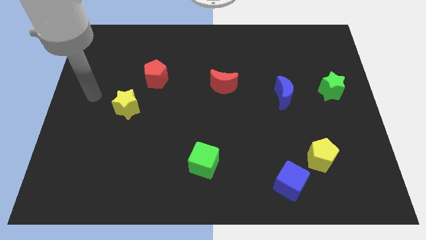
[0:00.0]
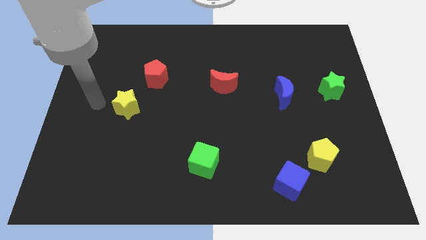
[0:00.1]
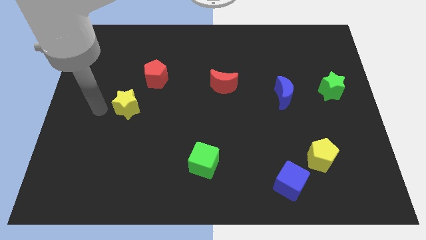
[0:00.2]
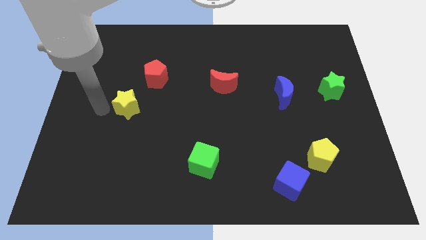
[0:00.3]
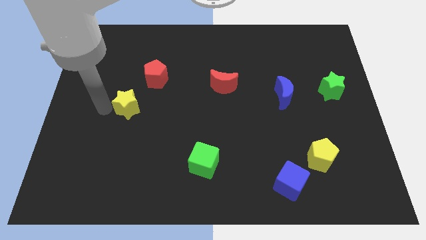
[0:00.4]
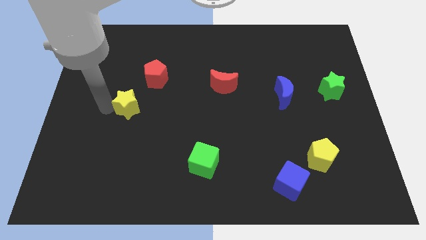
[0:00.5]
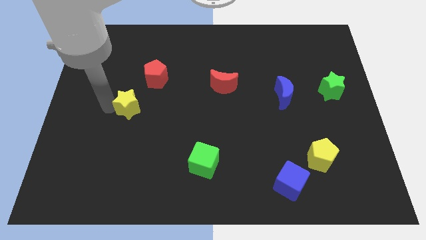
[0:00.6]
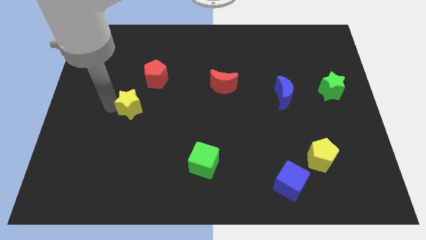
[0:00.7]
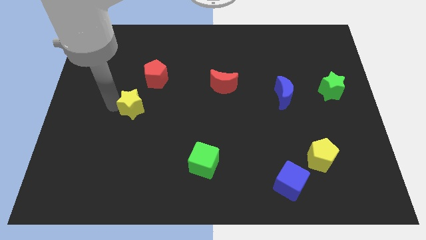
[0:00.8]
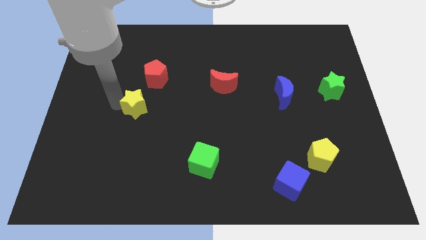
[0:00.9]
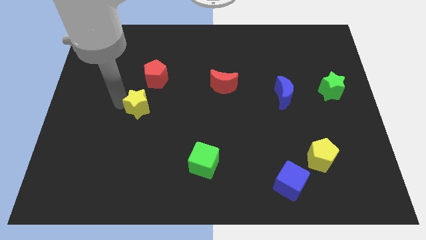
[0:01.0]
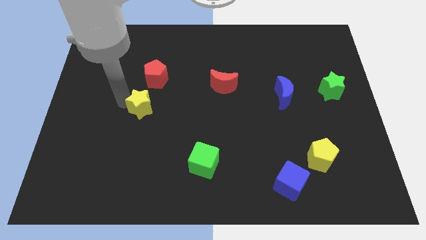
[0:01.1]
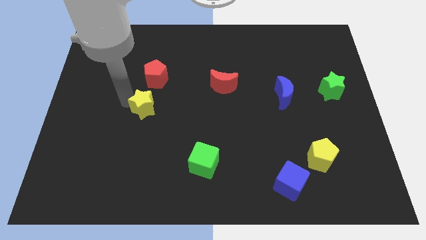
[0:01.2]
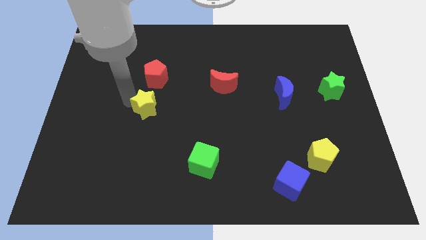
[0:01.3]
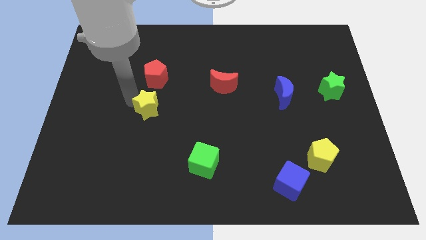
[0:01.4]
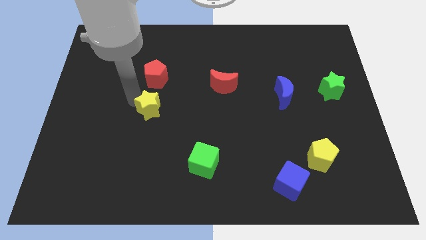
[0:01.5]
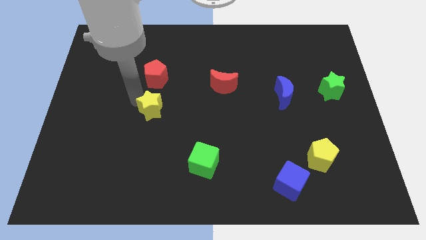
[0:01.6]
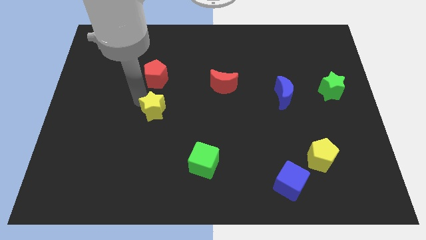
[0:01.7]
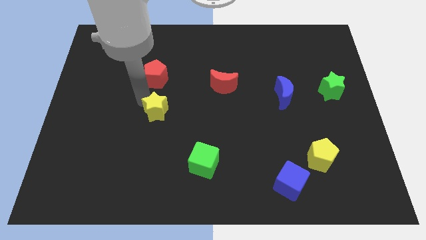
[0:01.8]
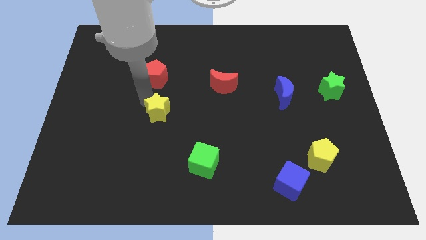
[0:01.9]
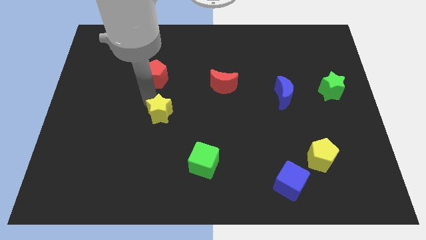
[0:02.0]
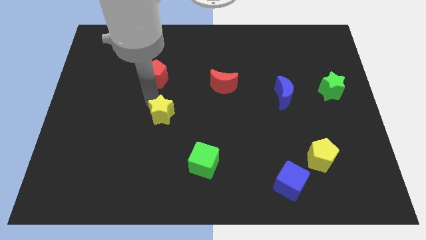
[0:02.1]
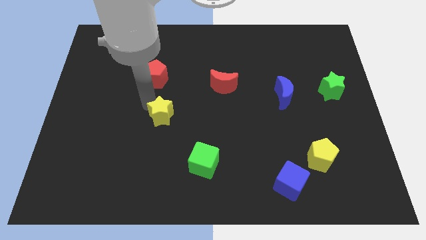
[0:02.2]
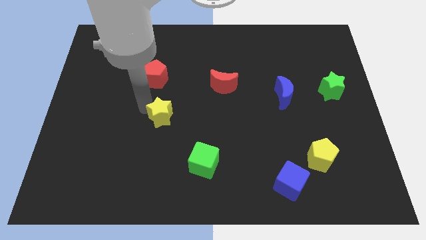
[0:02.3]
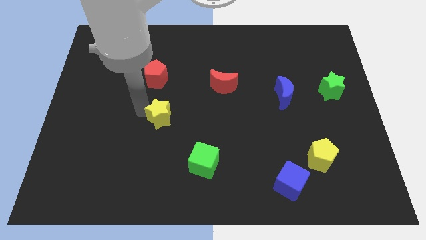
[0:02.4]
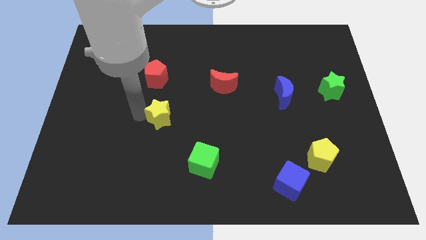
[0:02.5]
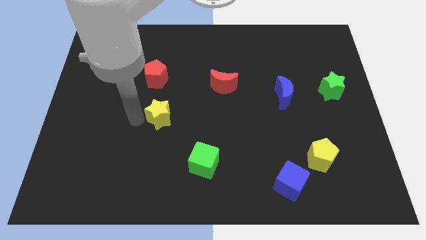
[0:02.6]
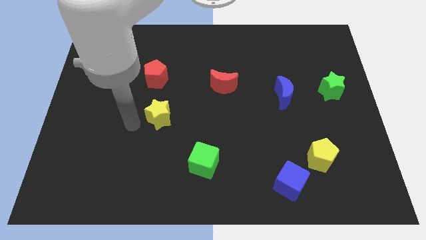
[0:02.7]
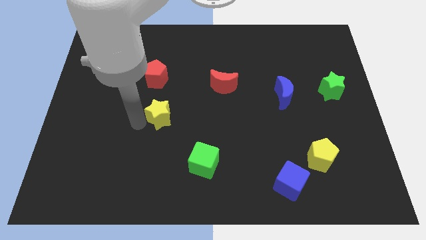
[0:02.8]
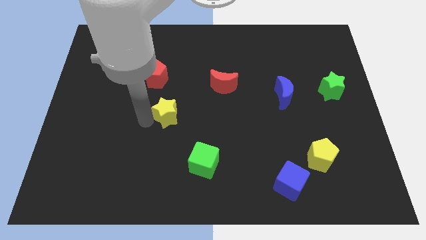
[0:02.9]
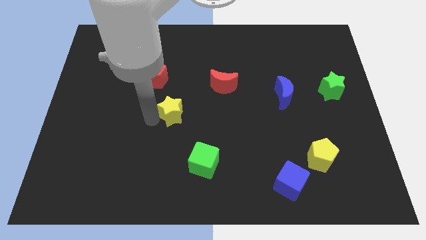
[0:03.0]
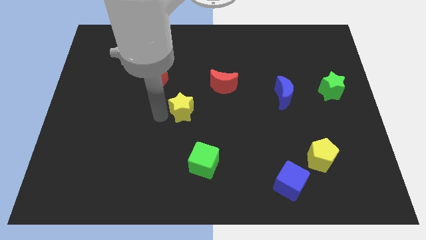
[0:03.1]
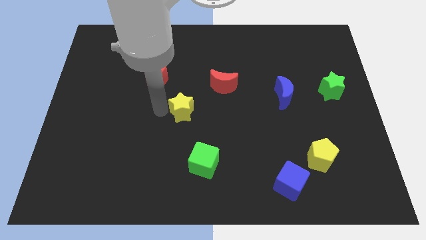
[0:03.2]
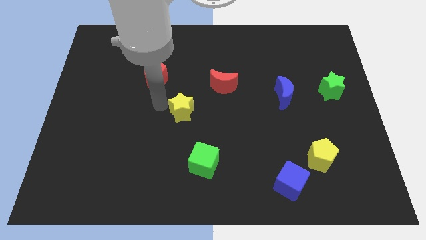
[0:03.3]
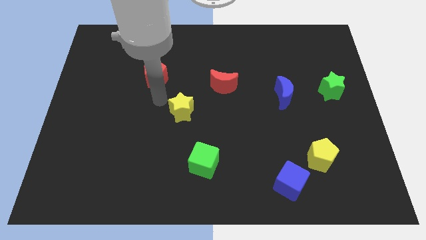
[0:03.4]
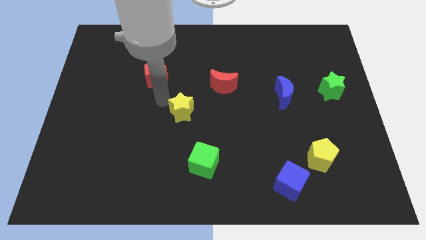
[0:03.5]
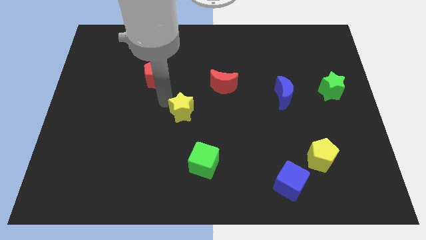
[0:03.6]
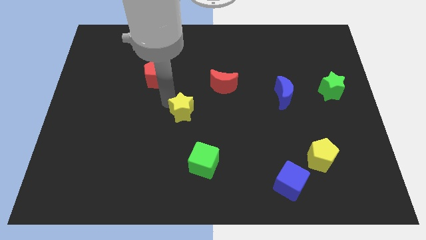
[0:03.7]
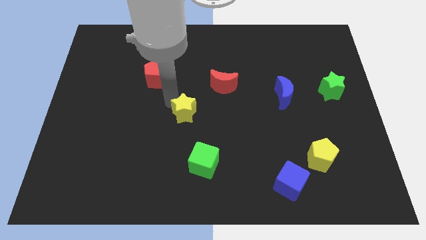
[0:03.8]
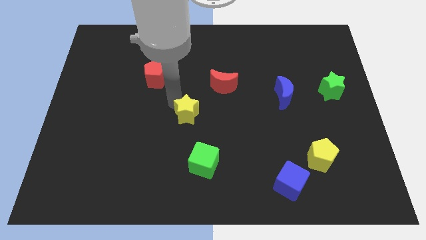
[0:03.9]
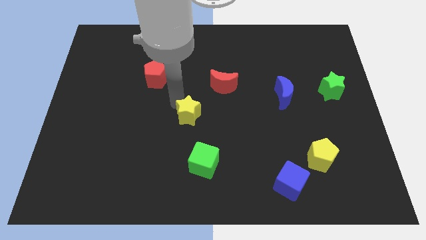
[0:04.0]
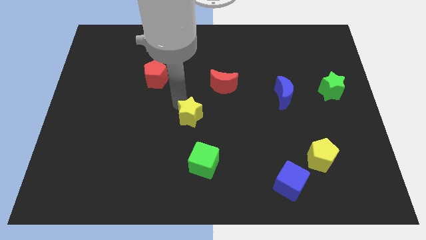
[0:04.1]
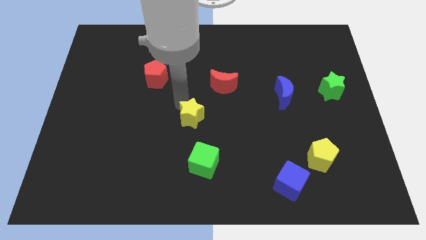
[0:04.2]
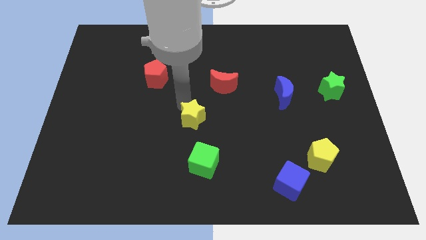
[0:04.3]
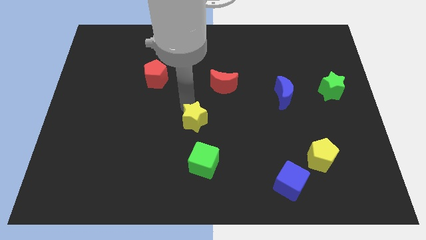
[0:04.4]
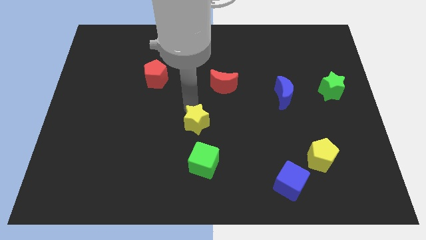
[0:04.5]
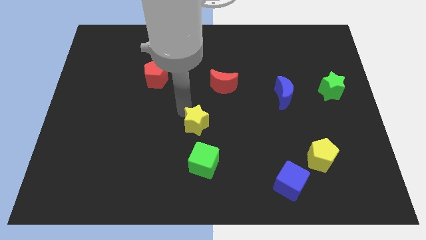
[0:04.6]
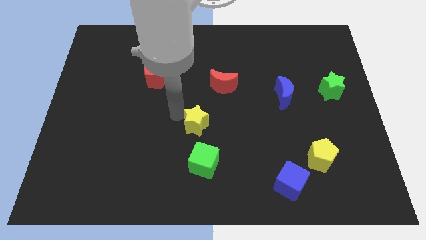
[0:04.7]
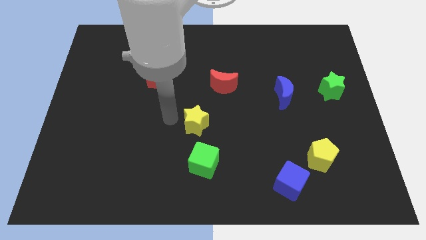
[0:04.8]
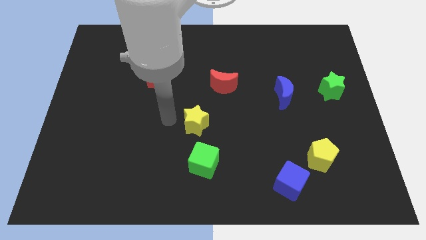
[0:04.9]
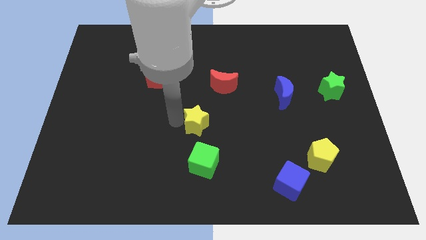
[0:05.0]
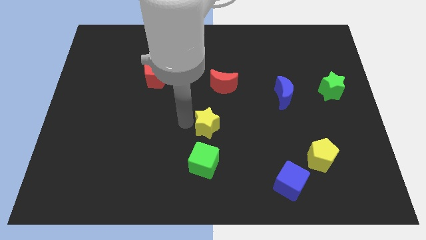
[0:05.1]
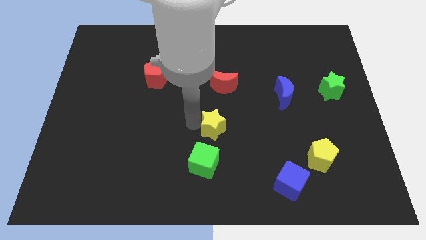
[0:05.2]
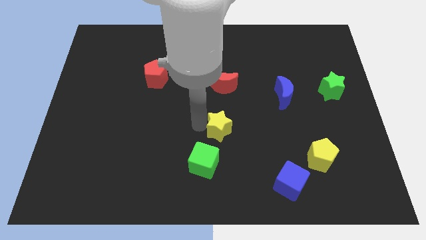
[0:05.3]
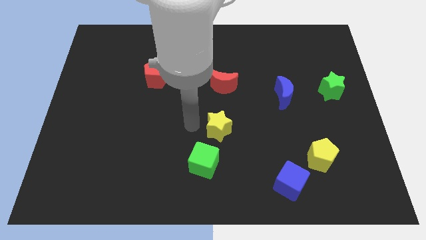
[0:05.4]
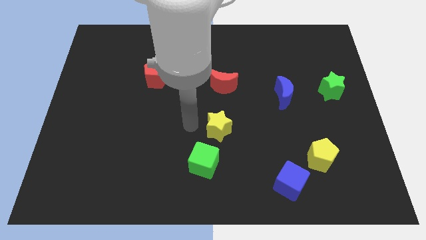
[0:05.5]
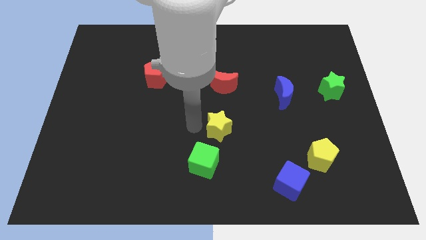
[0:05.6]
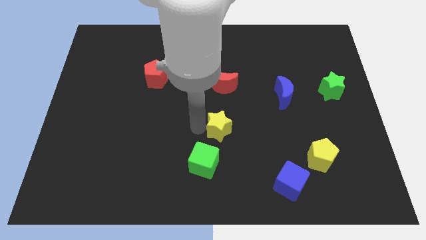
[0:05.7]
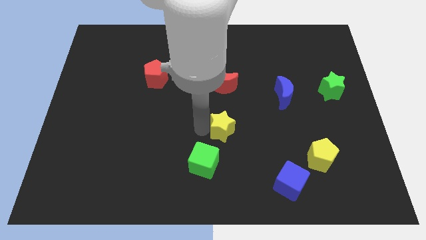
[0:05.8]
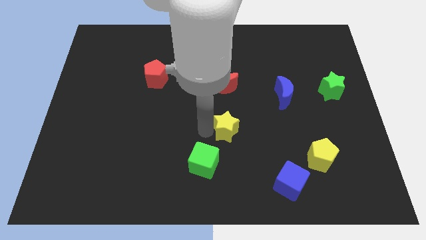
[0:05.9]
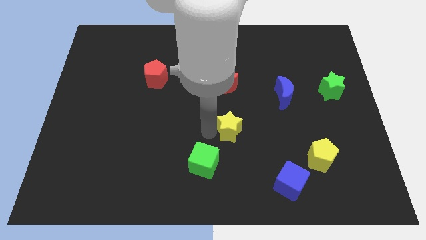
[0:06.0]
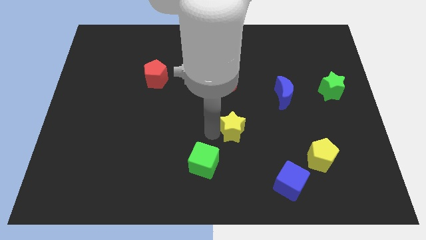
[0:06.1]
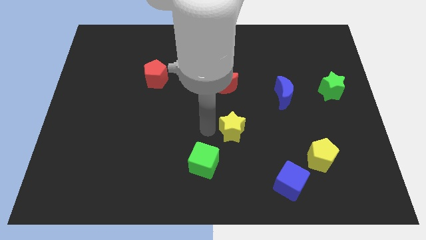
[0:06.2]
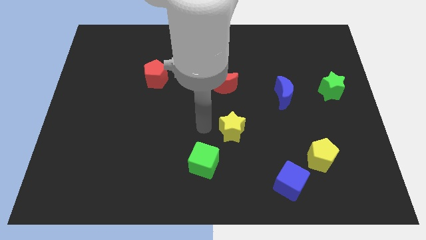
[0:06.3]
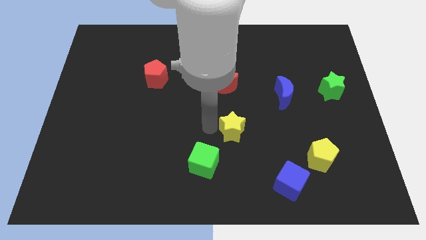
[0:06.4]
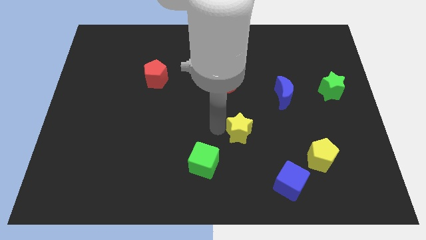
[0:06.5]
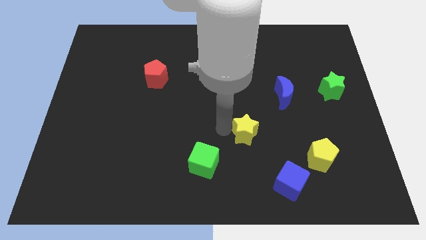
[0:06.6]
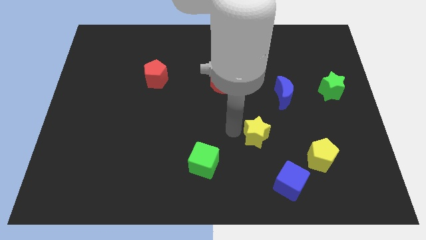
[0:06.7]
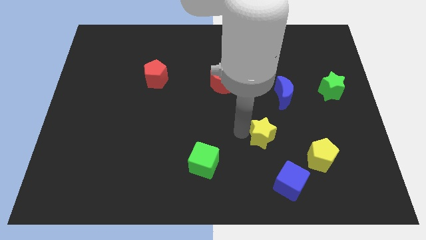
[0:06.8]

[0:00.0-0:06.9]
slide the yellow star to the top side of the blue cube
